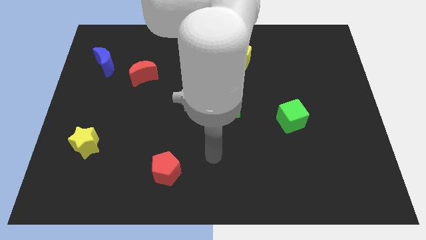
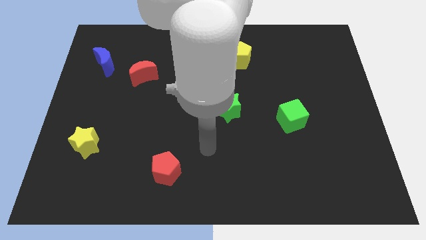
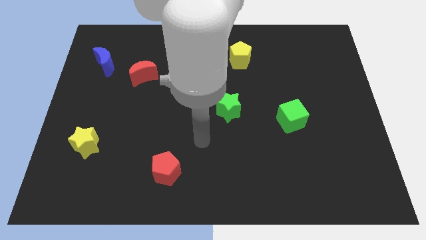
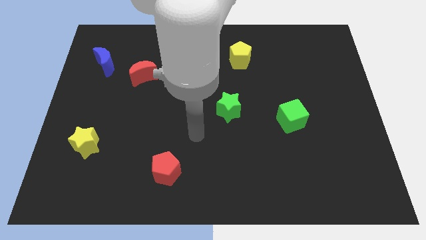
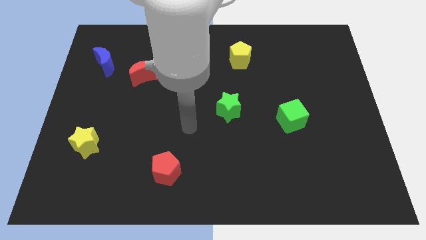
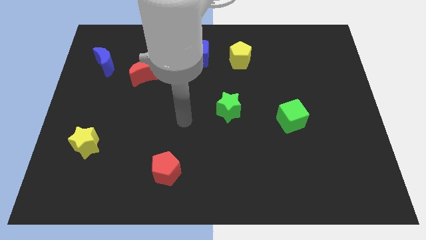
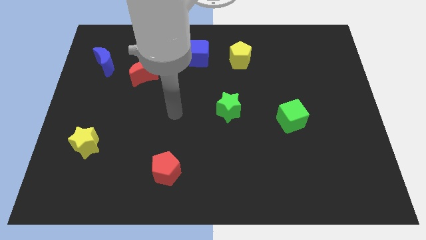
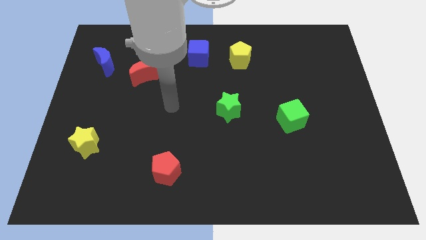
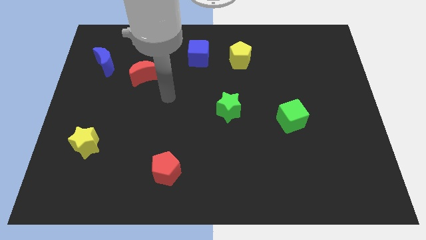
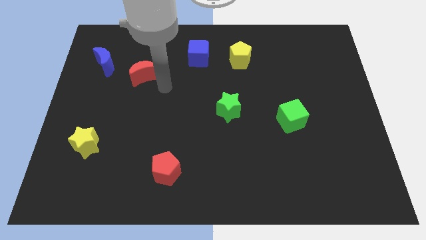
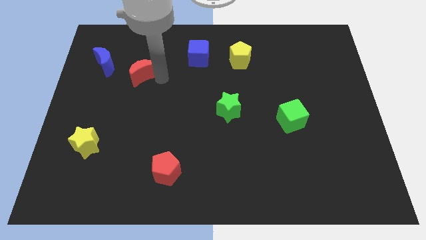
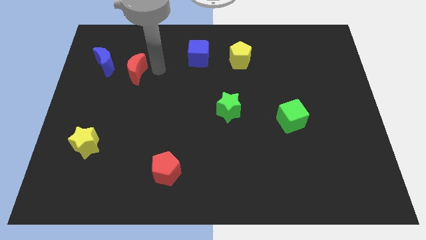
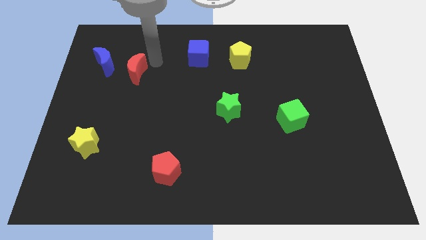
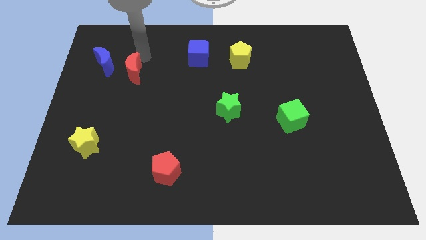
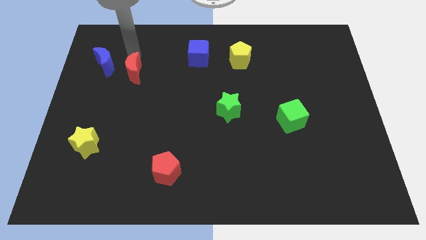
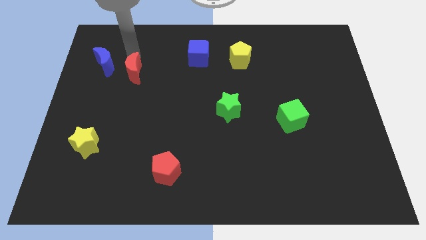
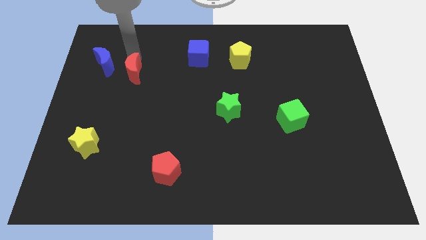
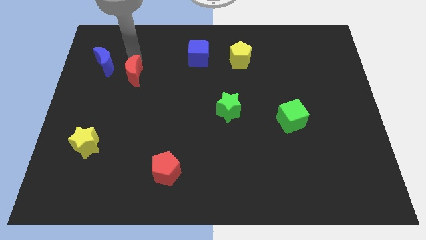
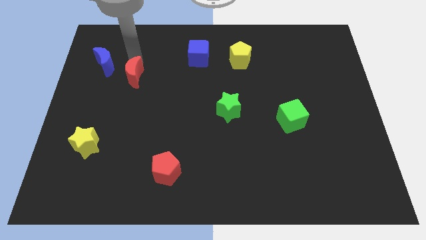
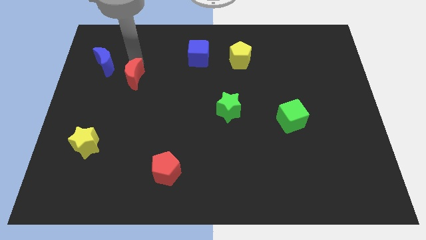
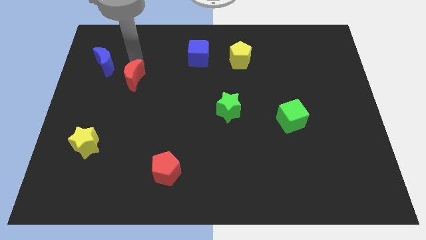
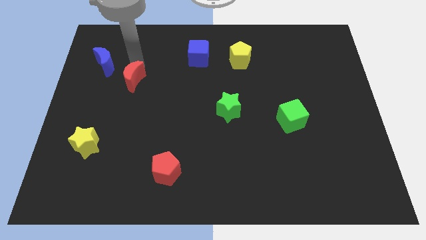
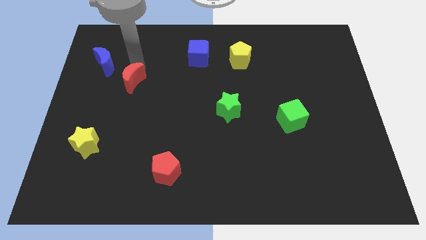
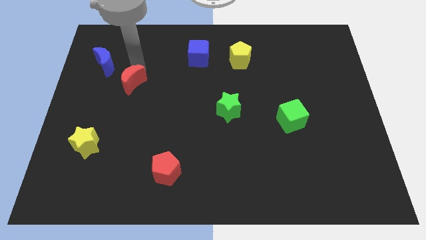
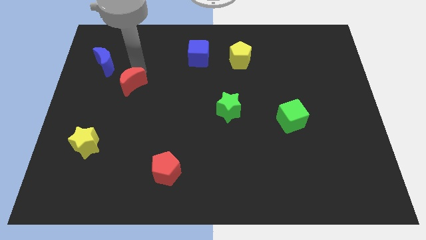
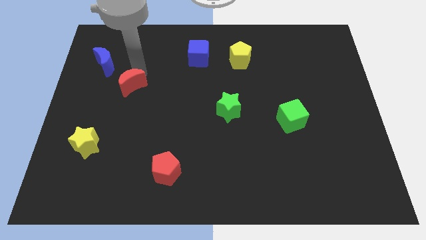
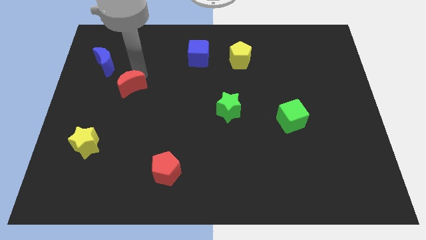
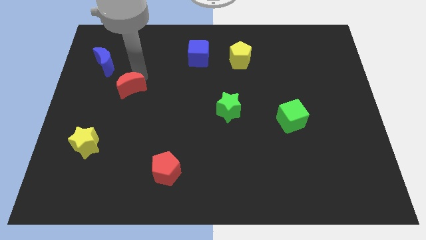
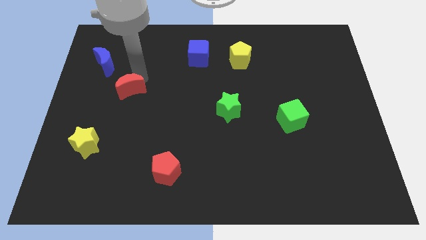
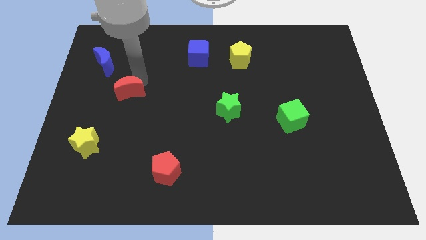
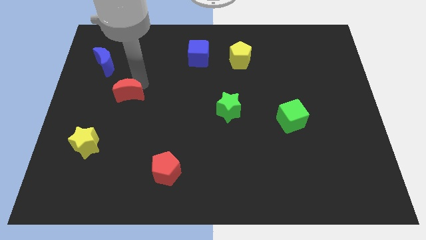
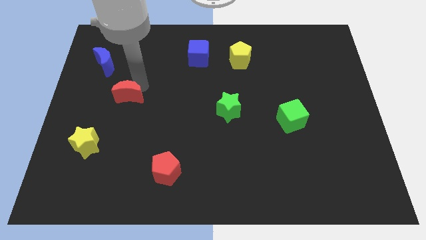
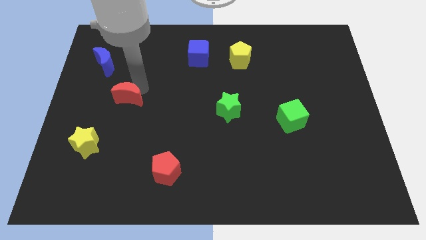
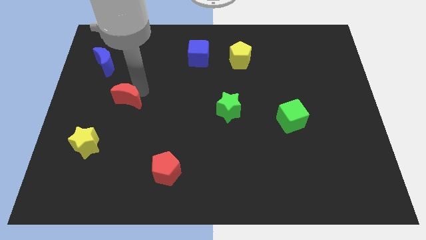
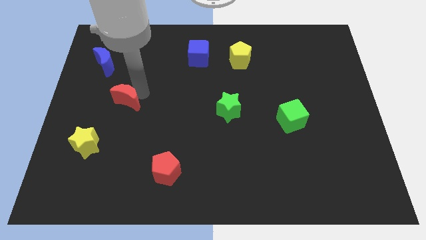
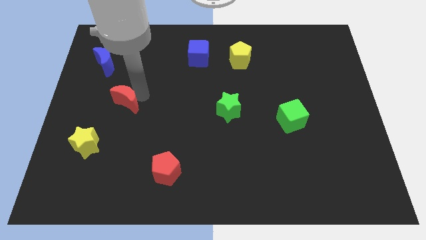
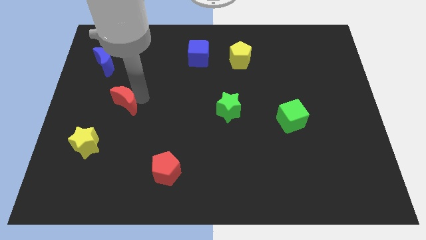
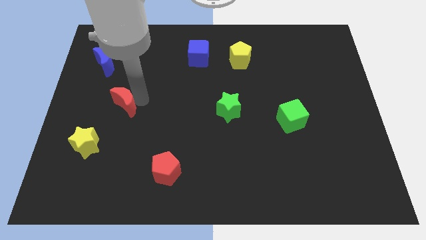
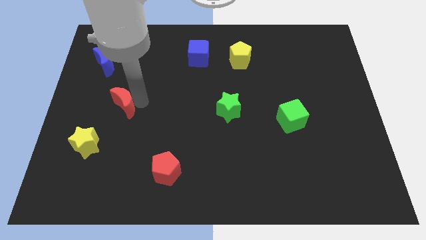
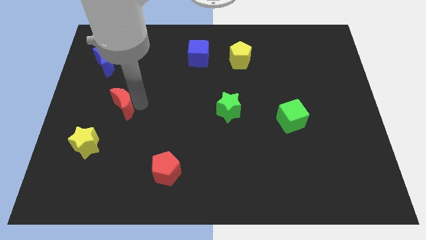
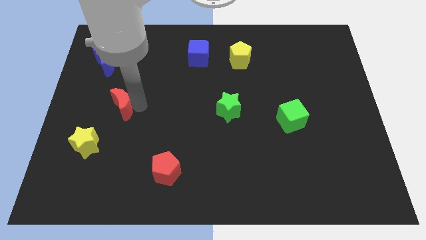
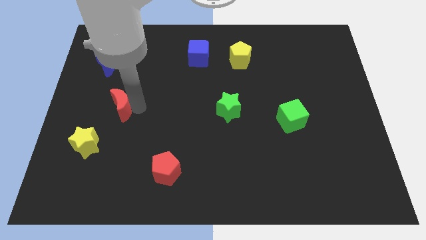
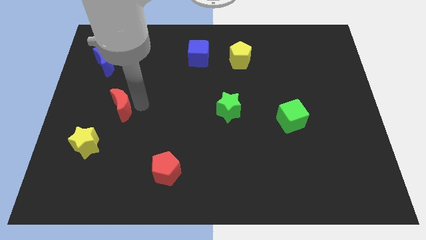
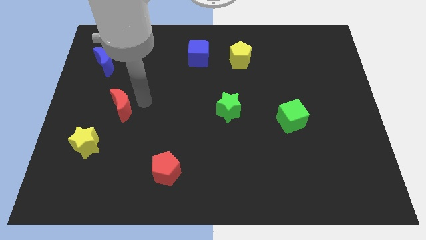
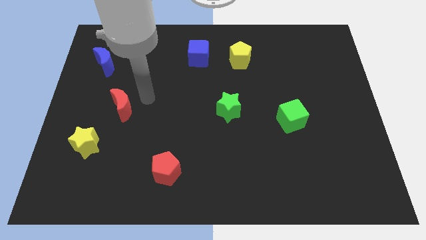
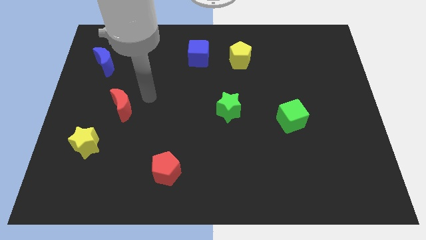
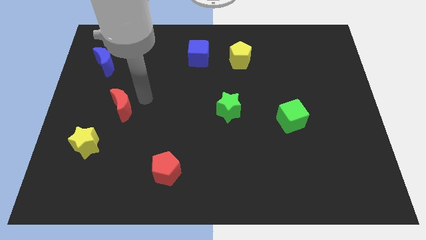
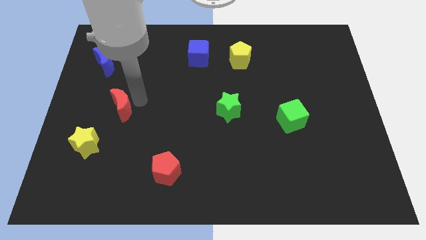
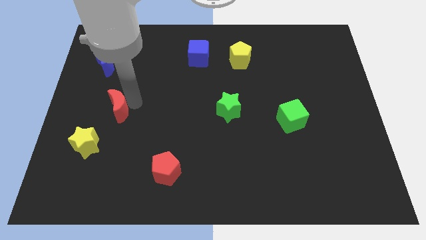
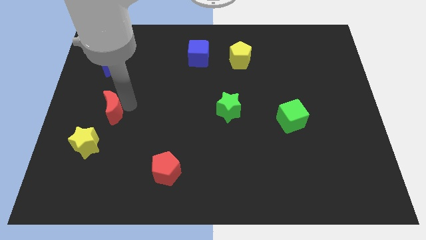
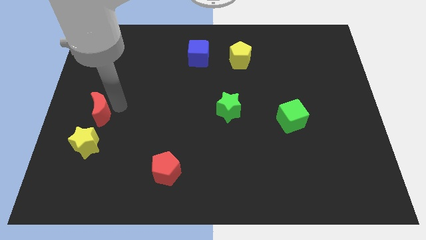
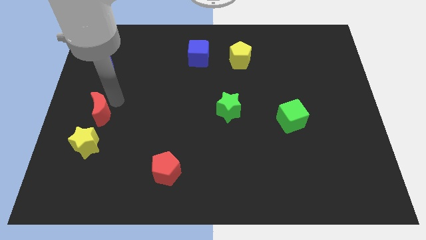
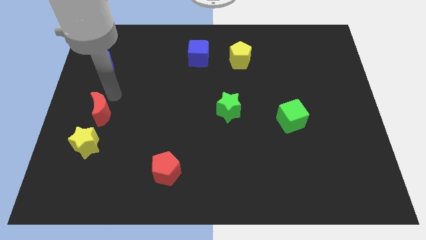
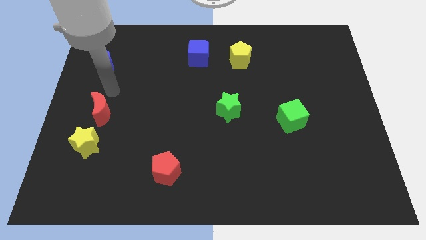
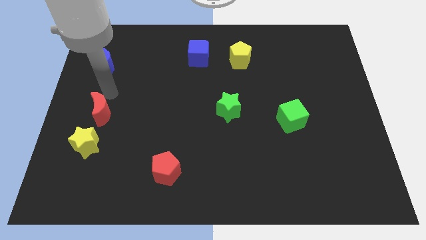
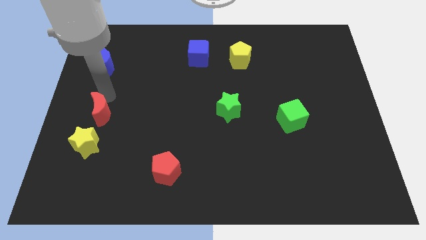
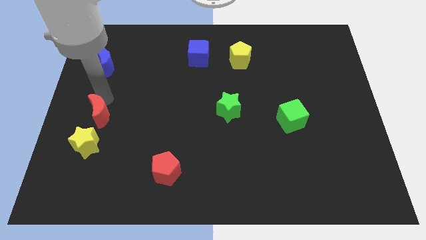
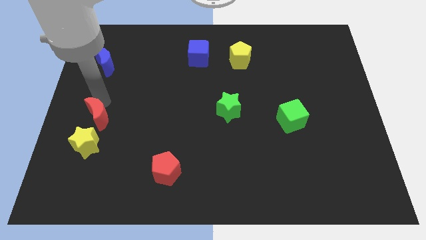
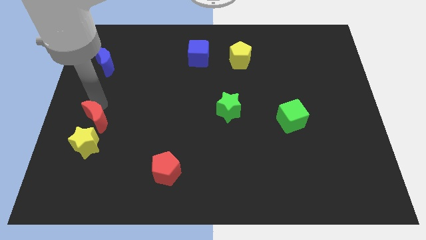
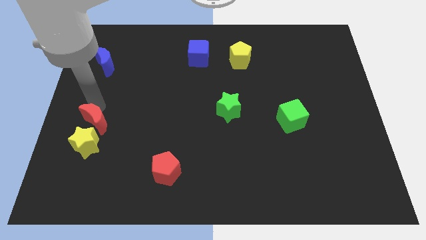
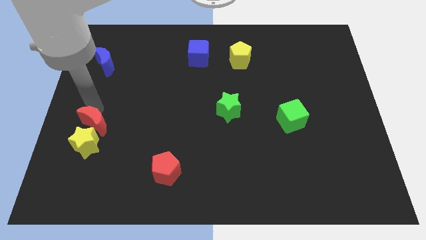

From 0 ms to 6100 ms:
slide the red moon next to the yellow star

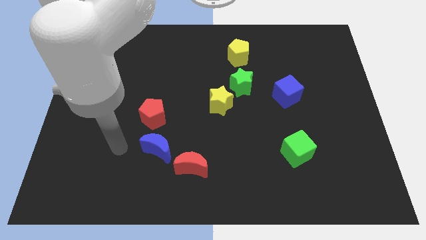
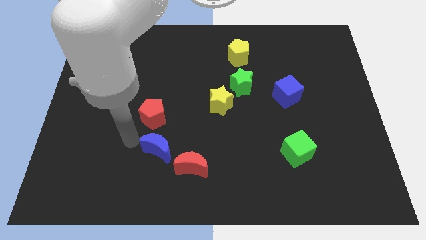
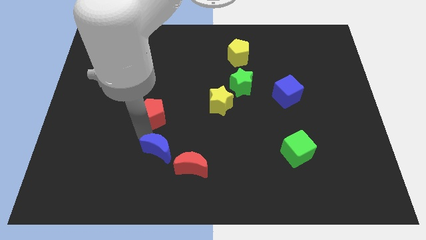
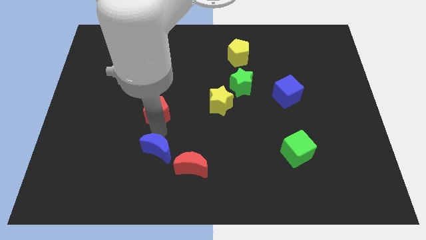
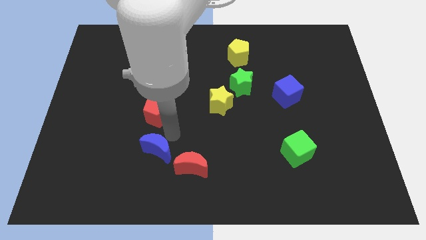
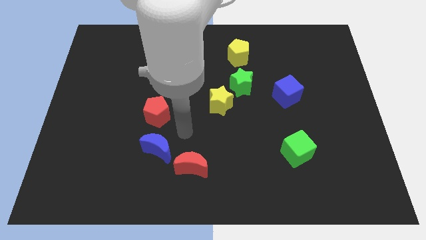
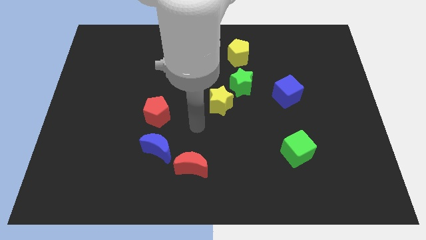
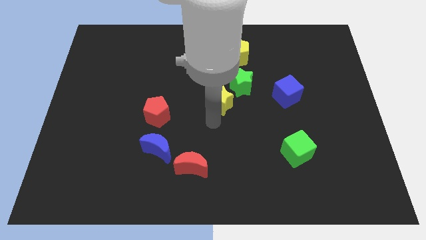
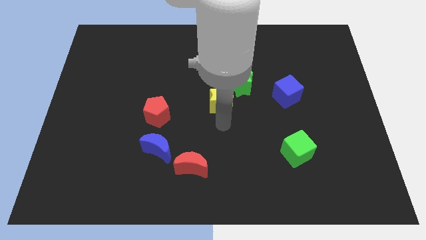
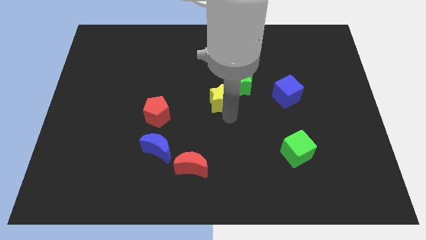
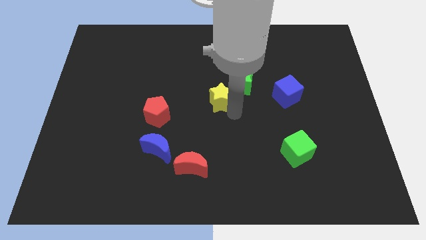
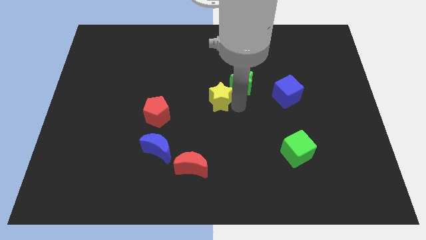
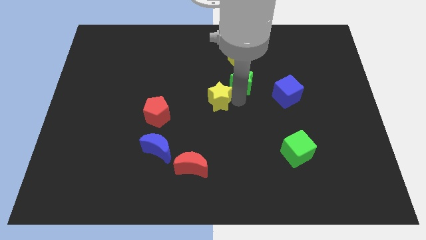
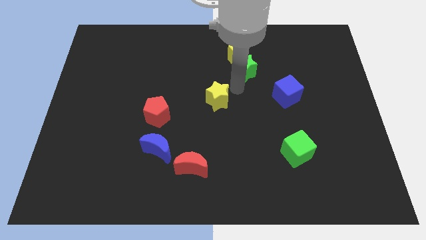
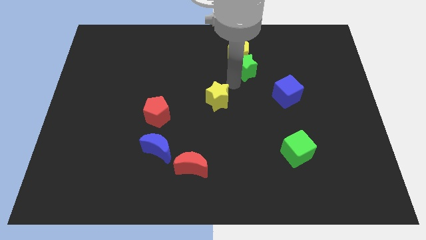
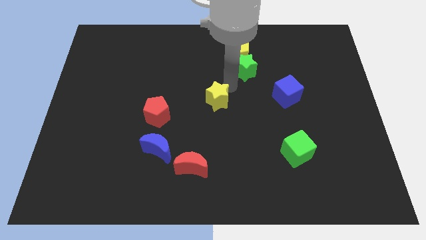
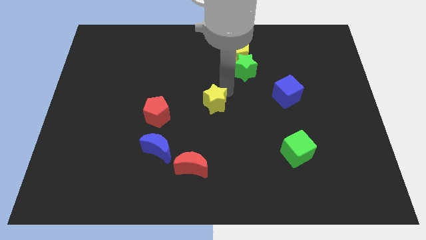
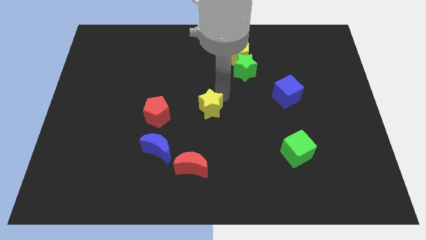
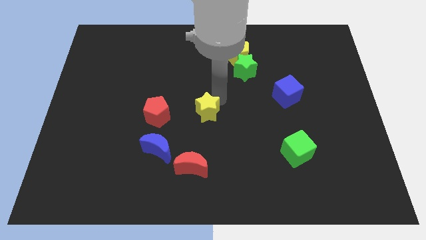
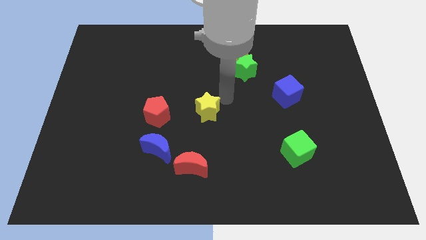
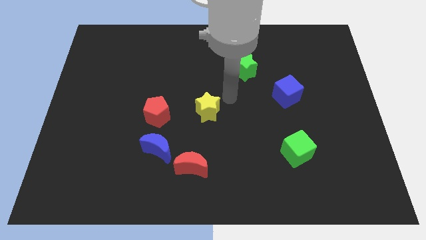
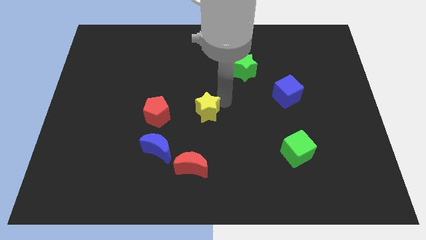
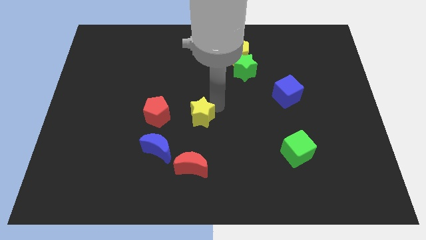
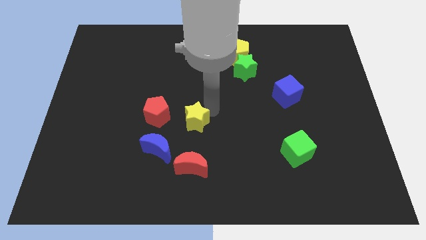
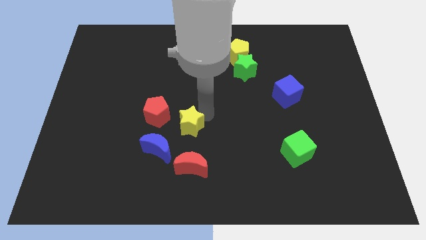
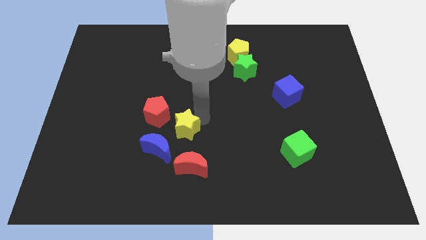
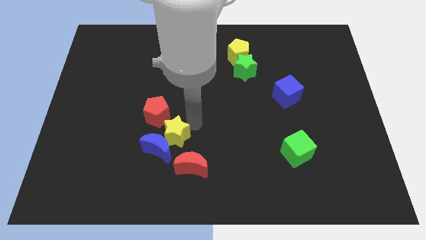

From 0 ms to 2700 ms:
put the yellow star next to the blue moon
